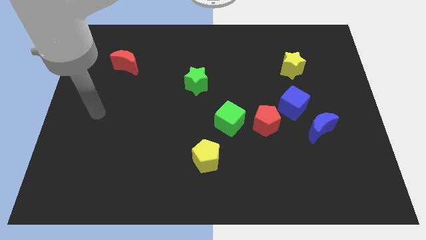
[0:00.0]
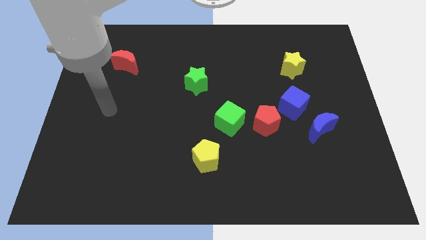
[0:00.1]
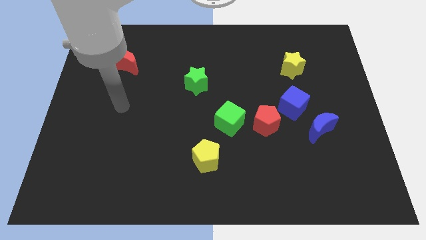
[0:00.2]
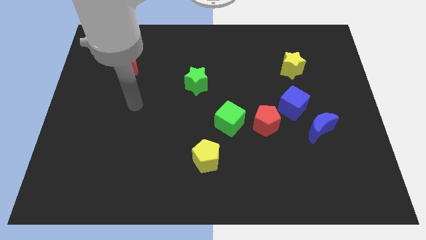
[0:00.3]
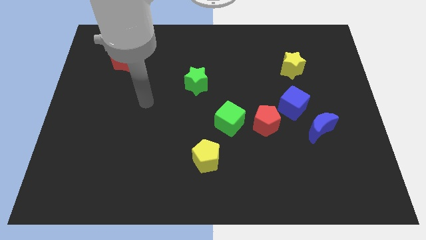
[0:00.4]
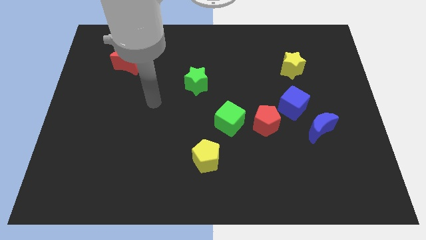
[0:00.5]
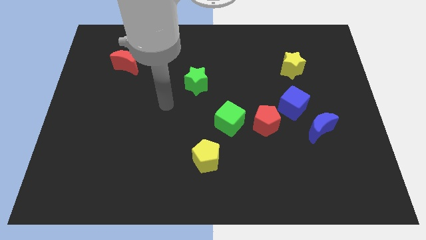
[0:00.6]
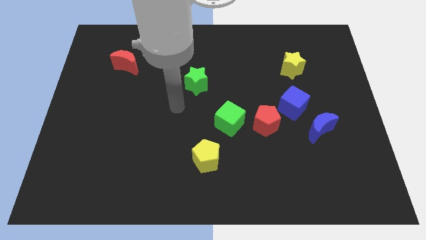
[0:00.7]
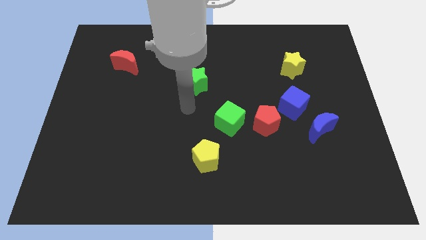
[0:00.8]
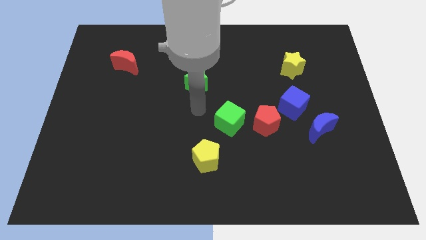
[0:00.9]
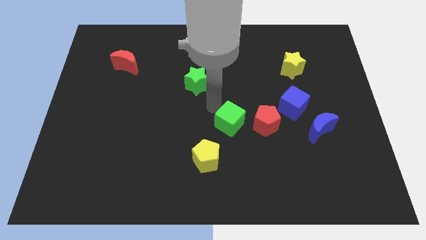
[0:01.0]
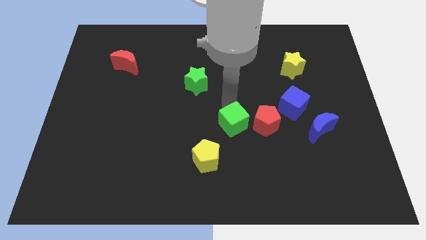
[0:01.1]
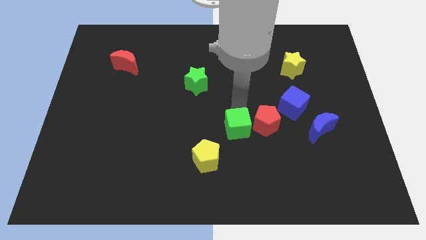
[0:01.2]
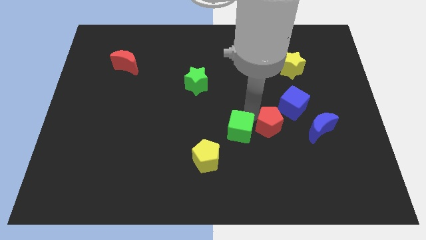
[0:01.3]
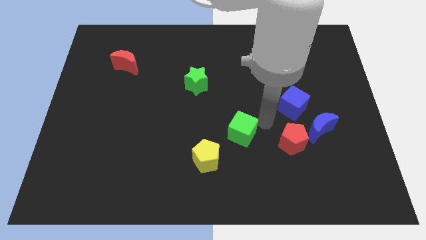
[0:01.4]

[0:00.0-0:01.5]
pull the green cube apart from the red pentagon

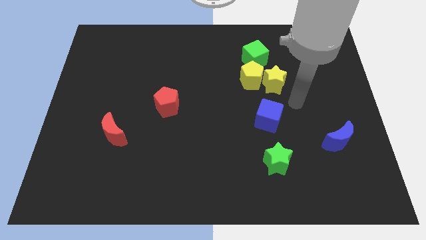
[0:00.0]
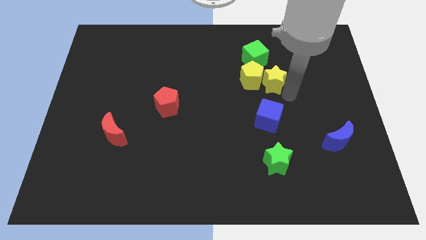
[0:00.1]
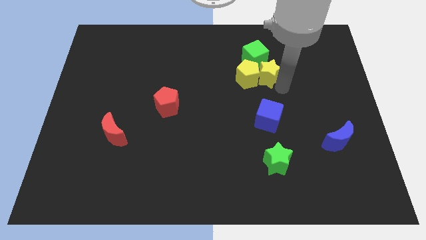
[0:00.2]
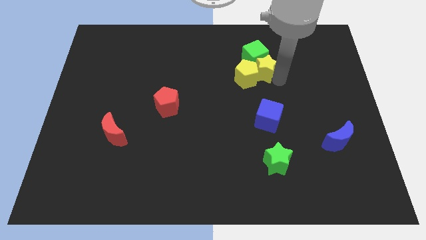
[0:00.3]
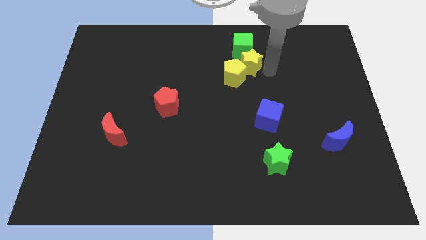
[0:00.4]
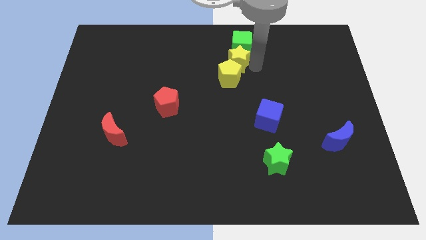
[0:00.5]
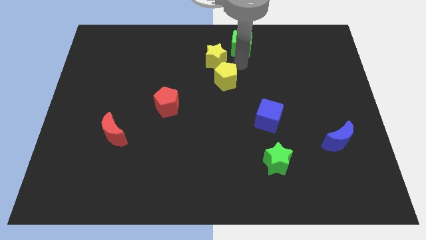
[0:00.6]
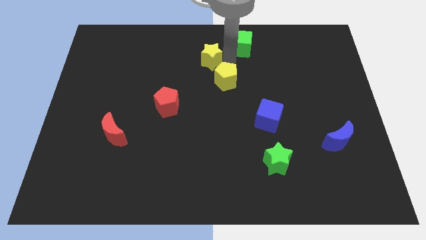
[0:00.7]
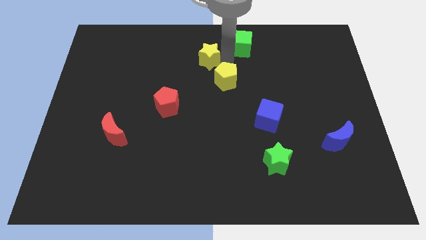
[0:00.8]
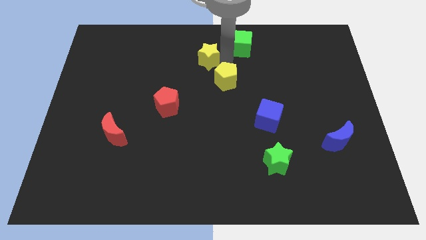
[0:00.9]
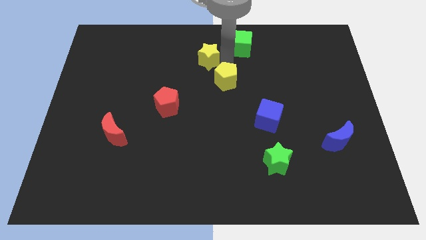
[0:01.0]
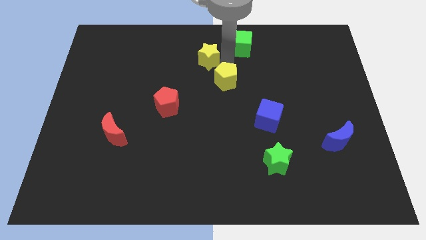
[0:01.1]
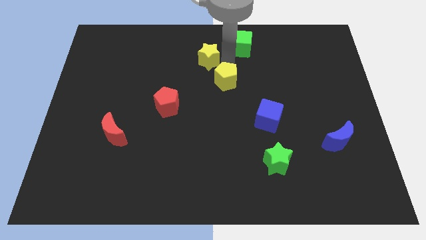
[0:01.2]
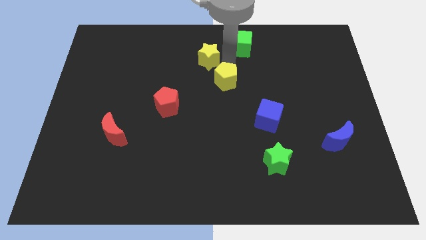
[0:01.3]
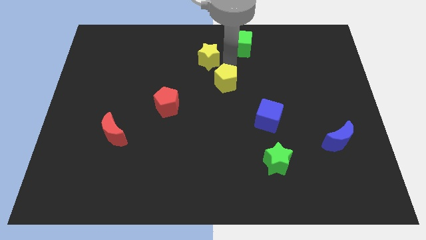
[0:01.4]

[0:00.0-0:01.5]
move the yellow pentagon away from the yellow star and green cube

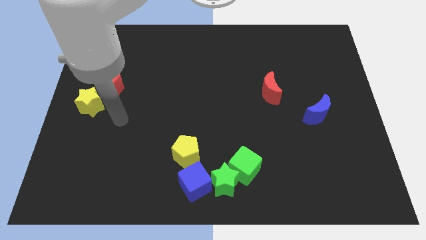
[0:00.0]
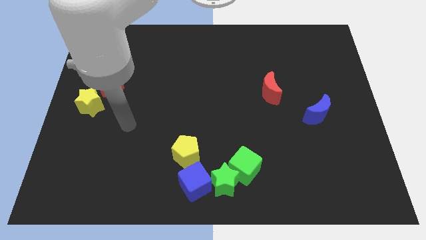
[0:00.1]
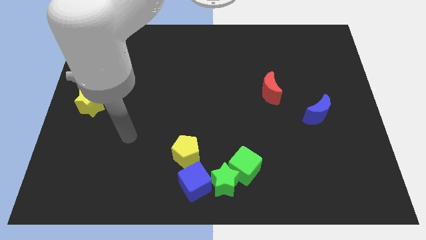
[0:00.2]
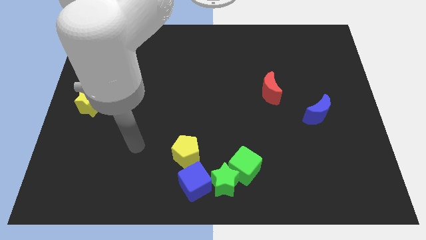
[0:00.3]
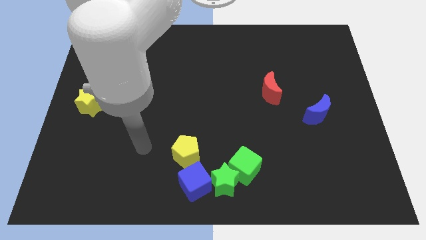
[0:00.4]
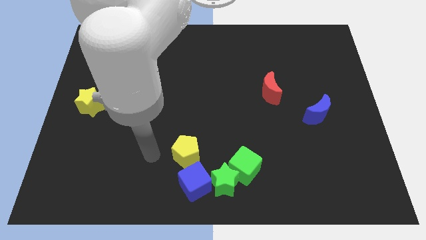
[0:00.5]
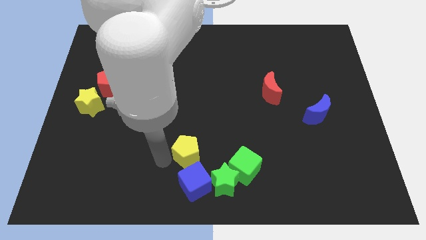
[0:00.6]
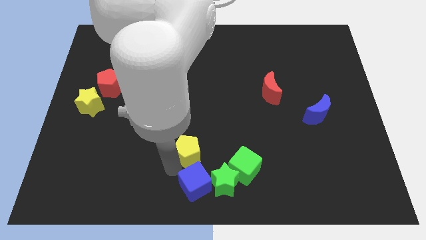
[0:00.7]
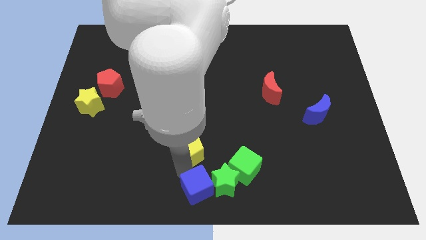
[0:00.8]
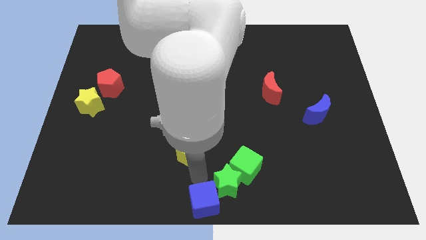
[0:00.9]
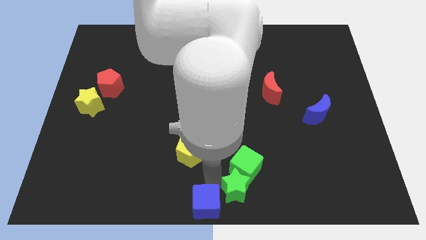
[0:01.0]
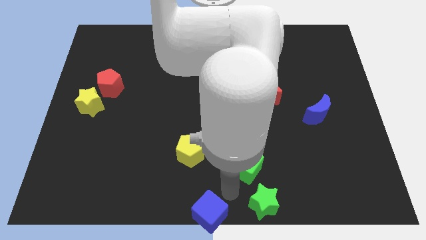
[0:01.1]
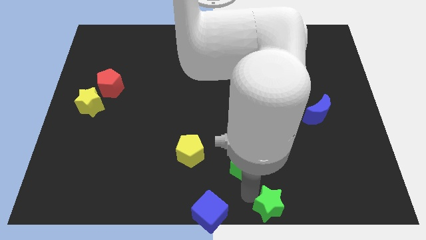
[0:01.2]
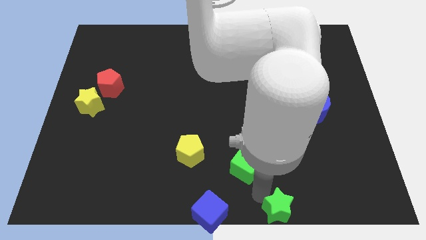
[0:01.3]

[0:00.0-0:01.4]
separate the green cube from the green star

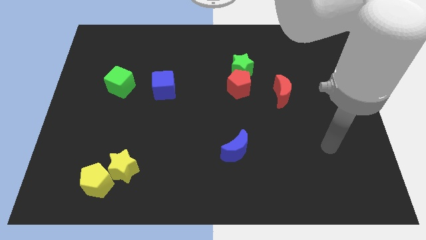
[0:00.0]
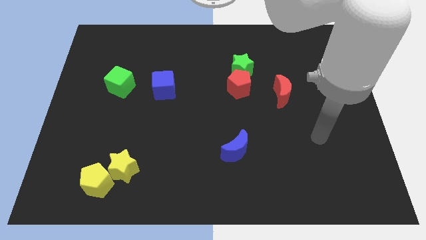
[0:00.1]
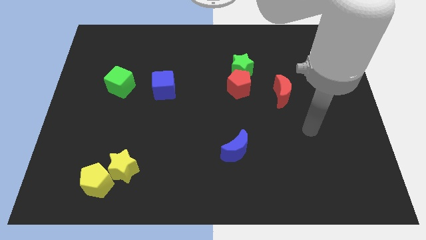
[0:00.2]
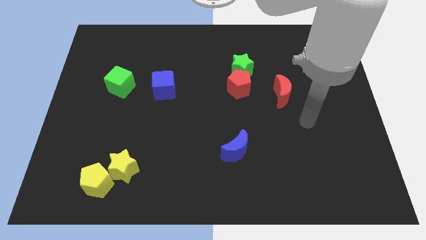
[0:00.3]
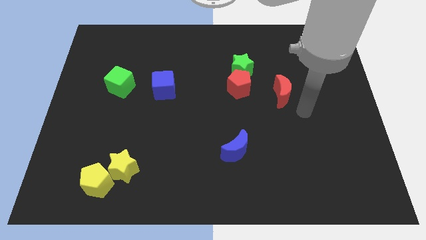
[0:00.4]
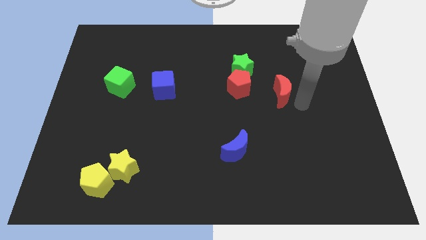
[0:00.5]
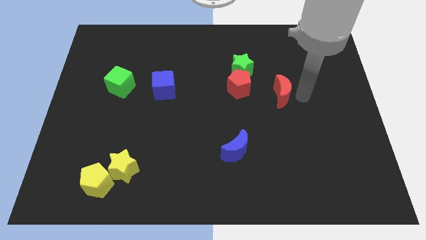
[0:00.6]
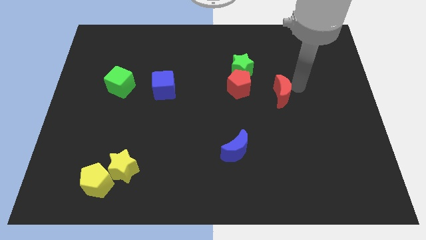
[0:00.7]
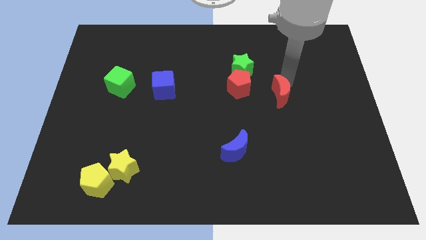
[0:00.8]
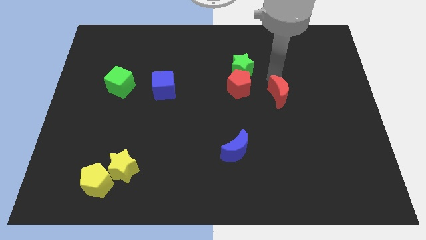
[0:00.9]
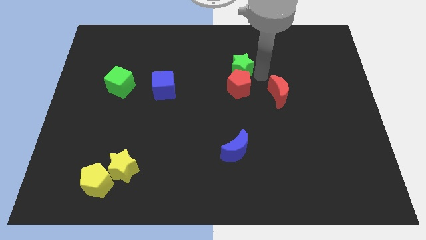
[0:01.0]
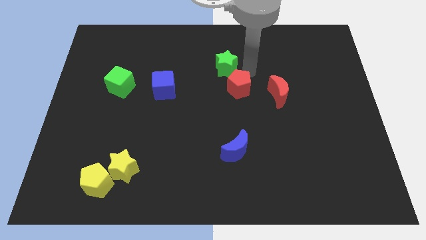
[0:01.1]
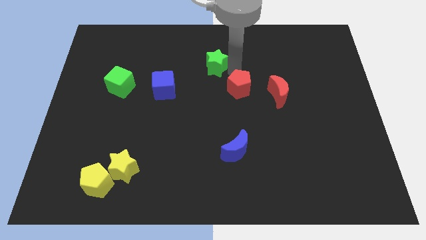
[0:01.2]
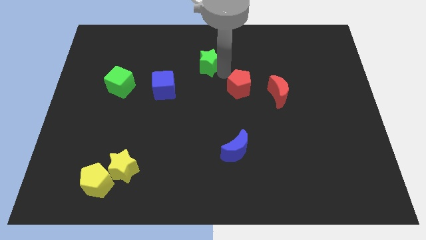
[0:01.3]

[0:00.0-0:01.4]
pull the red pentagon apart from the green star

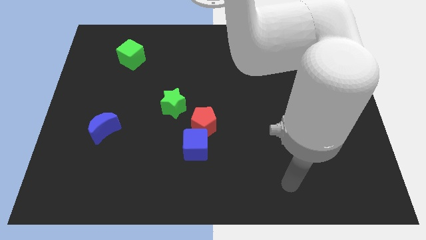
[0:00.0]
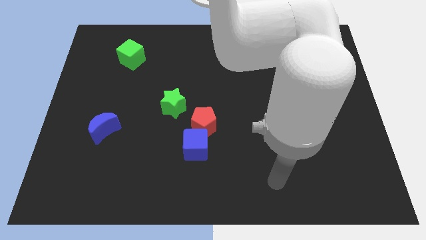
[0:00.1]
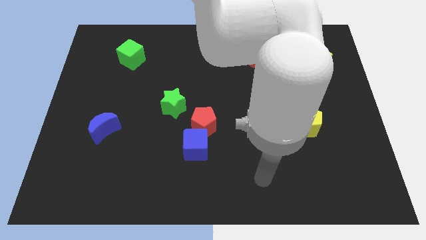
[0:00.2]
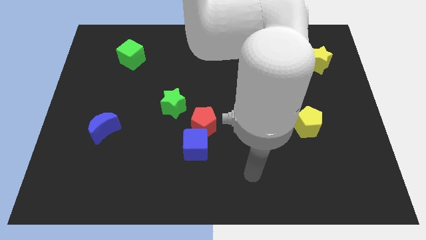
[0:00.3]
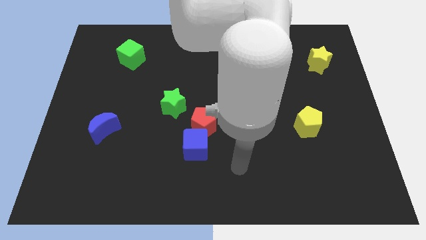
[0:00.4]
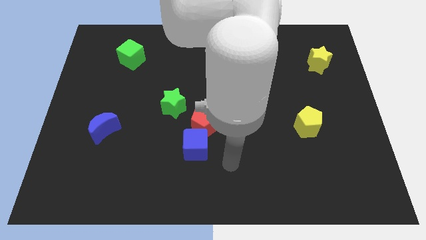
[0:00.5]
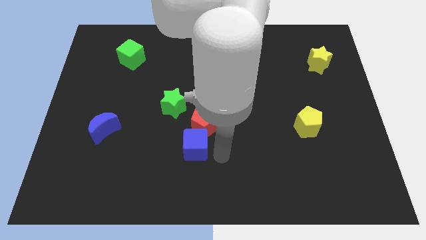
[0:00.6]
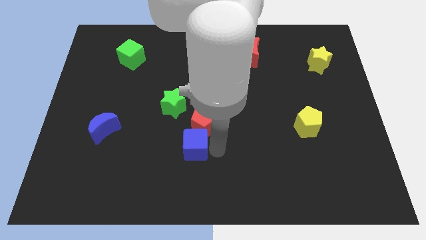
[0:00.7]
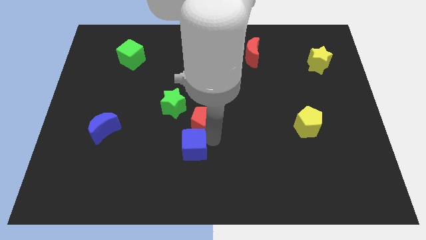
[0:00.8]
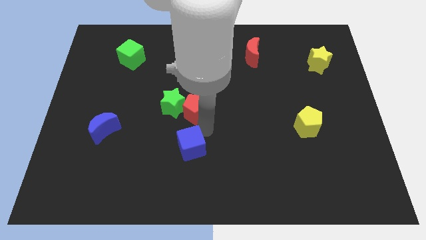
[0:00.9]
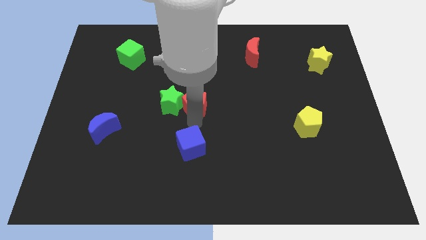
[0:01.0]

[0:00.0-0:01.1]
pull the blue cube apart from the red pentagon

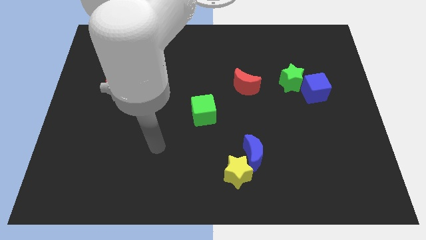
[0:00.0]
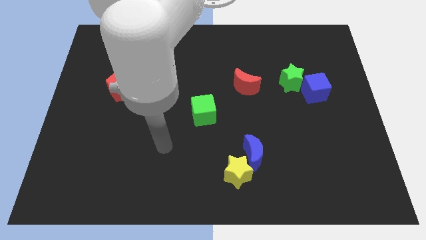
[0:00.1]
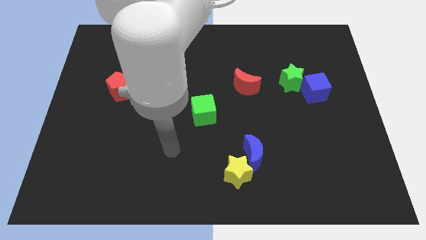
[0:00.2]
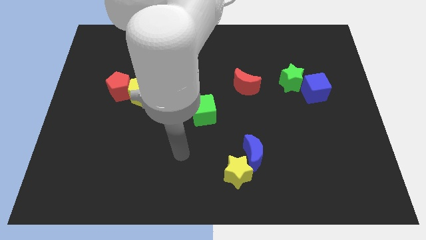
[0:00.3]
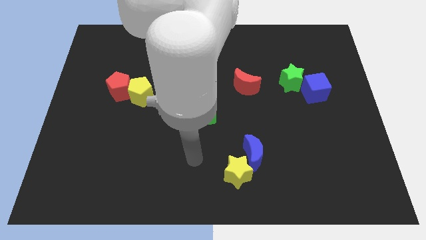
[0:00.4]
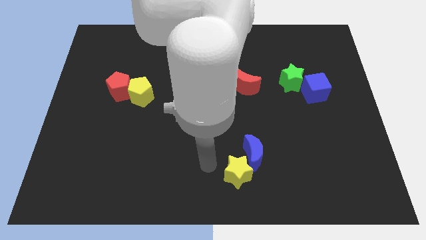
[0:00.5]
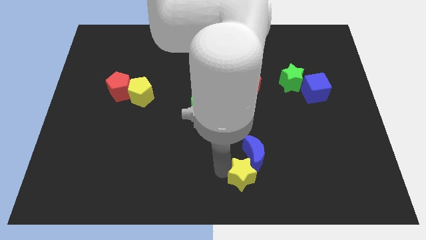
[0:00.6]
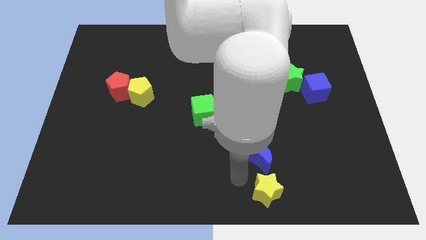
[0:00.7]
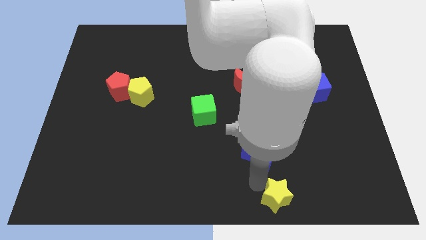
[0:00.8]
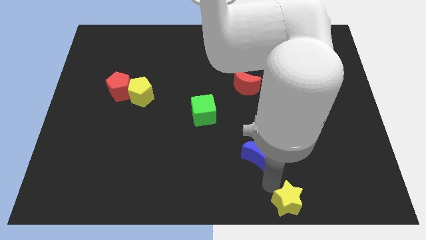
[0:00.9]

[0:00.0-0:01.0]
pull the blue moon apart from the yellow star

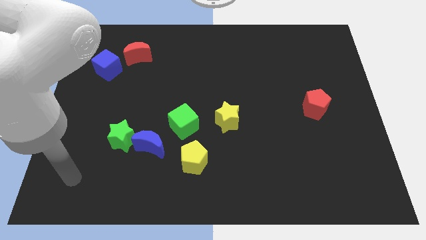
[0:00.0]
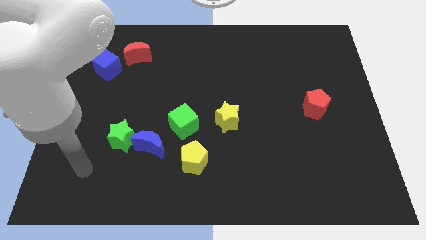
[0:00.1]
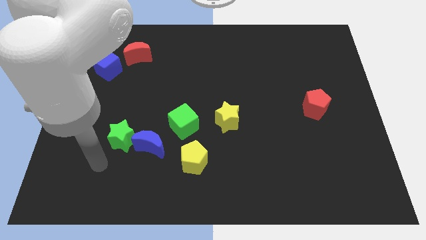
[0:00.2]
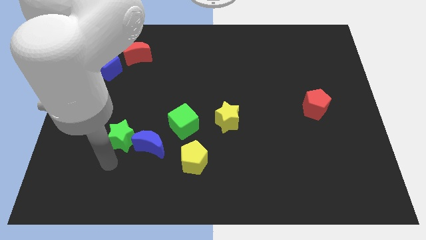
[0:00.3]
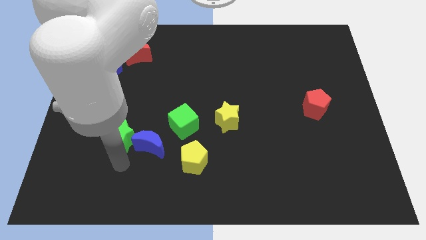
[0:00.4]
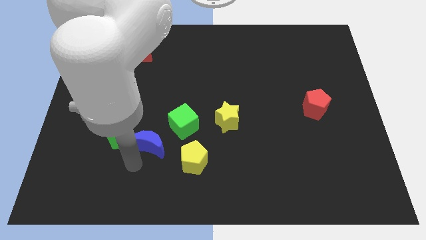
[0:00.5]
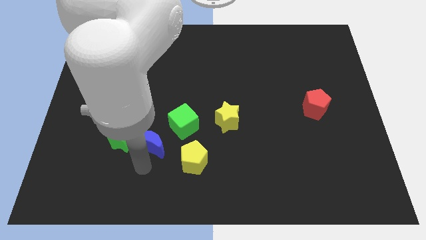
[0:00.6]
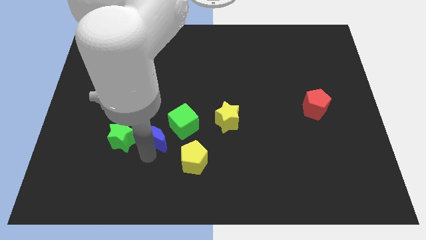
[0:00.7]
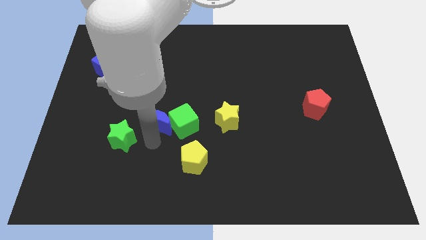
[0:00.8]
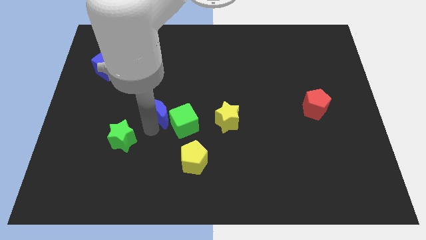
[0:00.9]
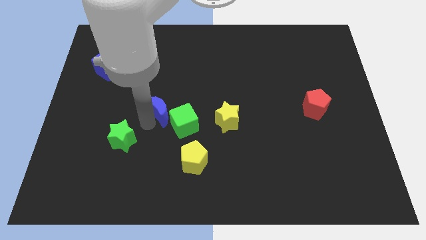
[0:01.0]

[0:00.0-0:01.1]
pull the green star apart from the blue moon

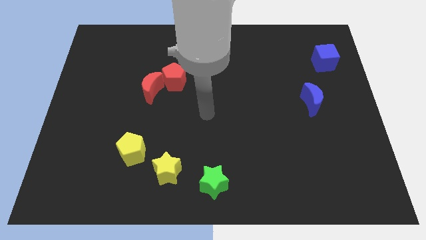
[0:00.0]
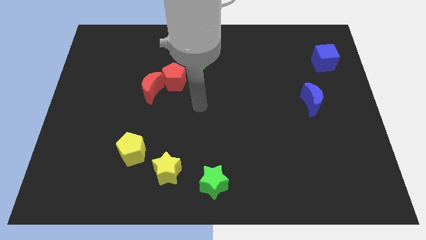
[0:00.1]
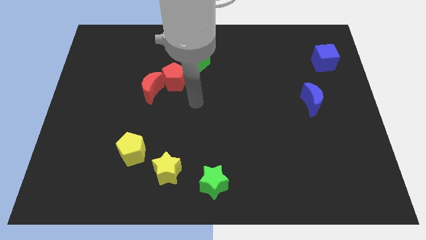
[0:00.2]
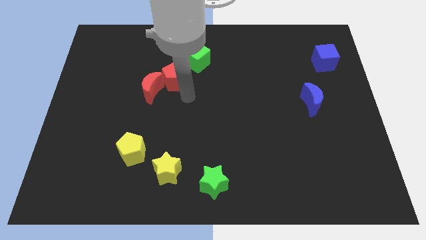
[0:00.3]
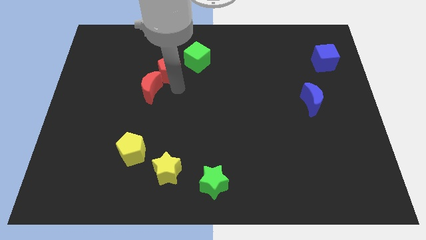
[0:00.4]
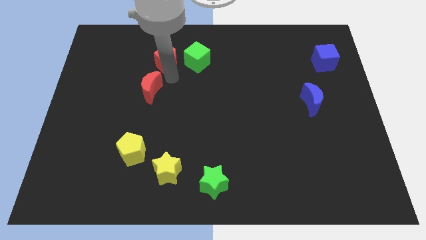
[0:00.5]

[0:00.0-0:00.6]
pull the red moon apart from the red pentagon
